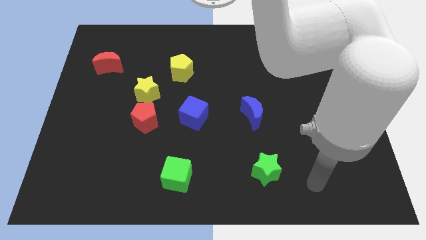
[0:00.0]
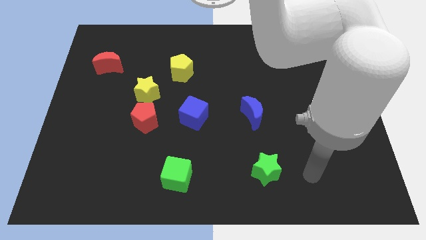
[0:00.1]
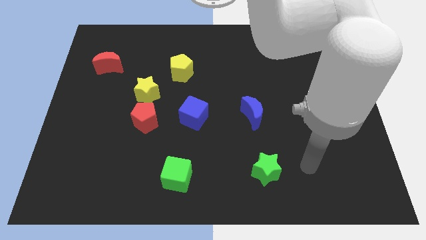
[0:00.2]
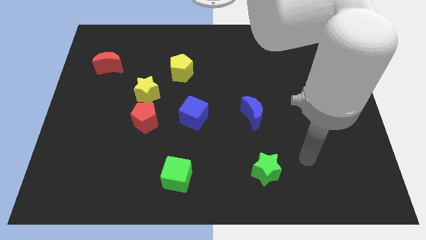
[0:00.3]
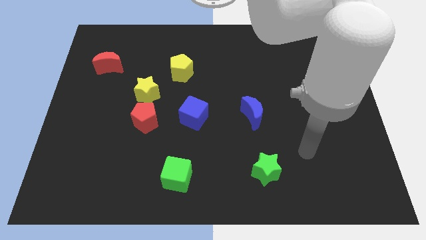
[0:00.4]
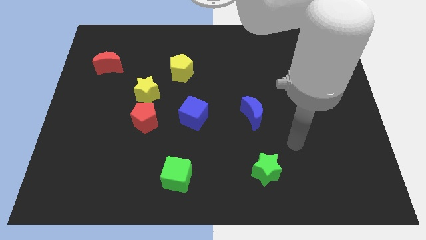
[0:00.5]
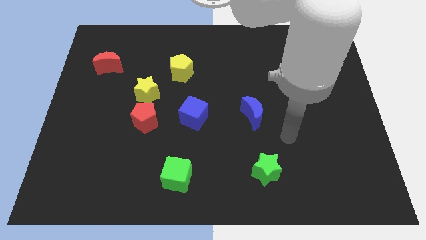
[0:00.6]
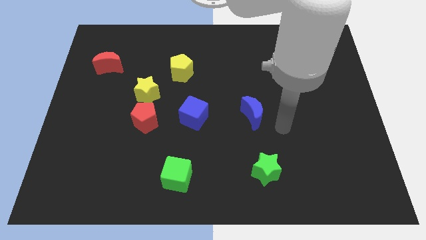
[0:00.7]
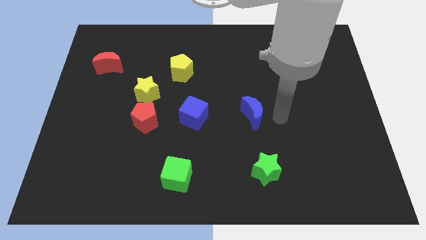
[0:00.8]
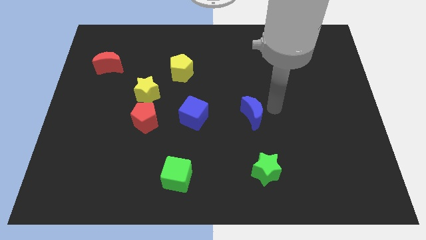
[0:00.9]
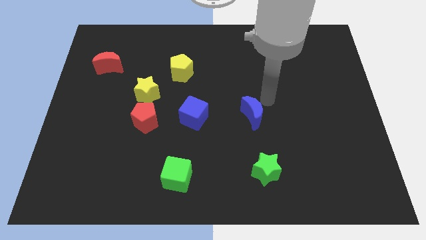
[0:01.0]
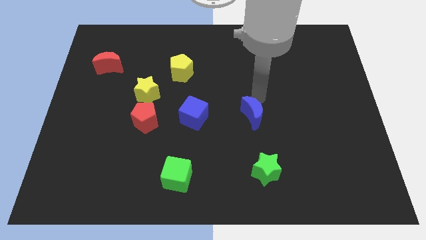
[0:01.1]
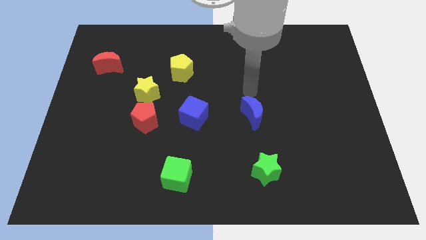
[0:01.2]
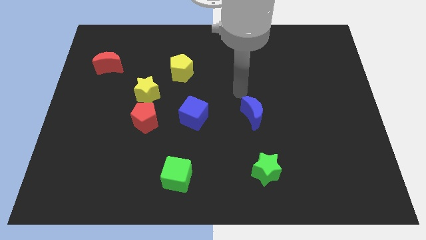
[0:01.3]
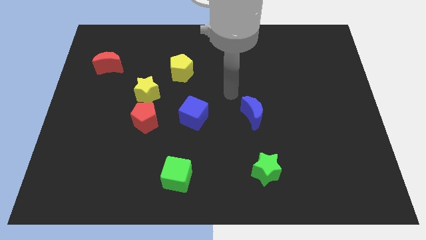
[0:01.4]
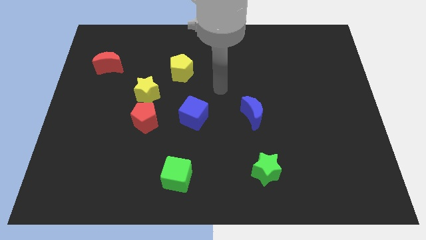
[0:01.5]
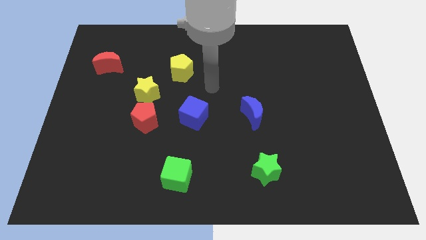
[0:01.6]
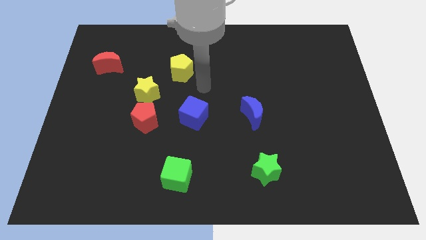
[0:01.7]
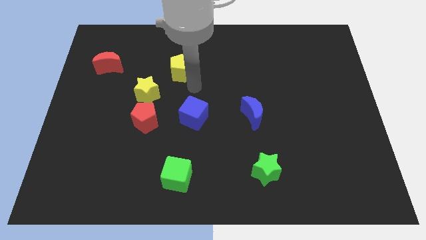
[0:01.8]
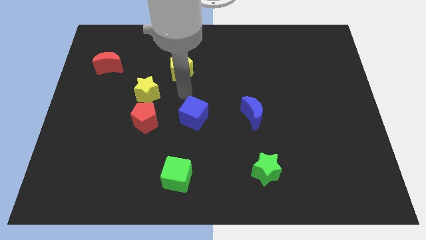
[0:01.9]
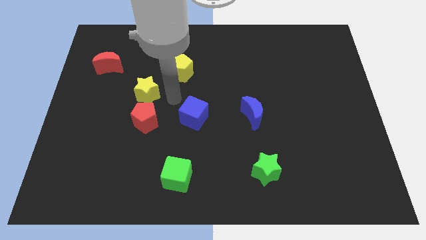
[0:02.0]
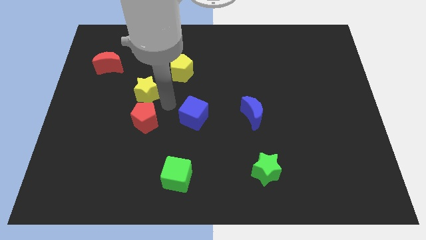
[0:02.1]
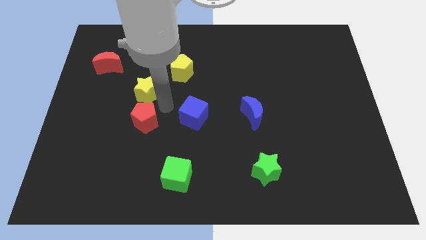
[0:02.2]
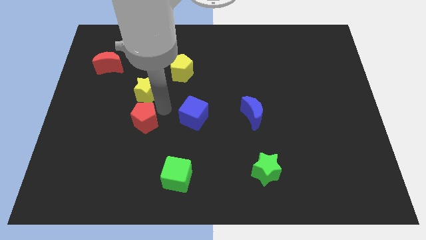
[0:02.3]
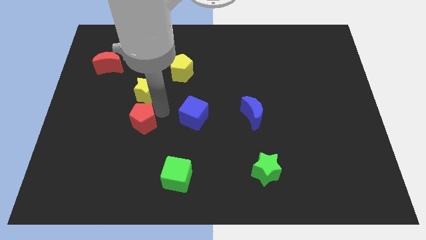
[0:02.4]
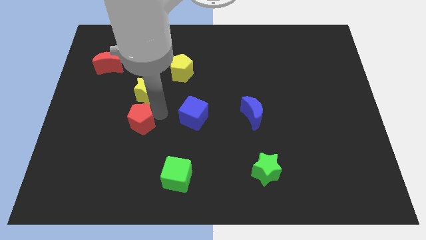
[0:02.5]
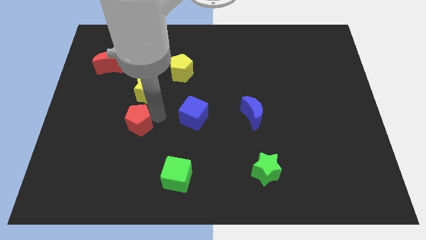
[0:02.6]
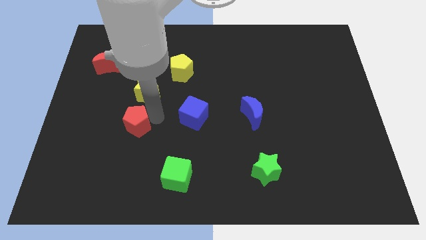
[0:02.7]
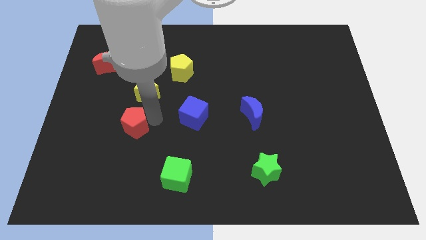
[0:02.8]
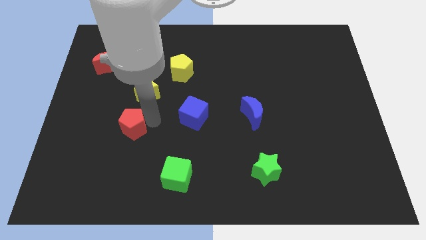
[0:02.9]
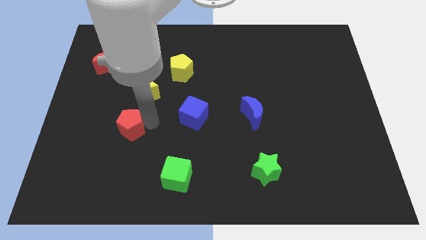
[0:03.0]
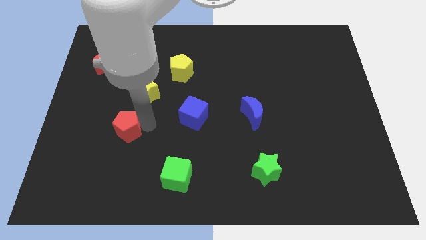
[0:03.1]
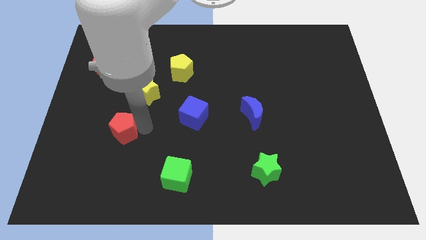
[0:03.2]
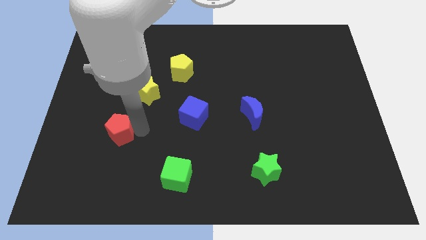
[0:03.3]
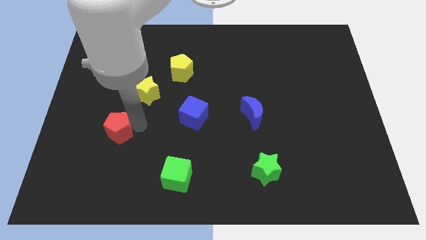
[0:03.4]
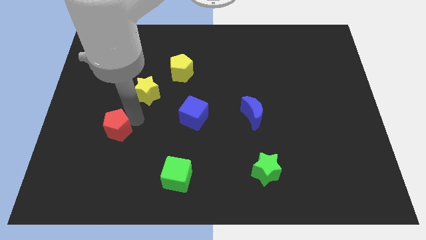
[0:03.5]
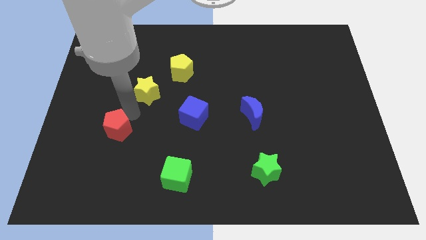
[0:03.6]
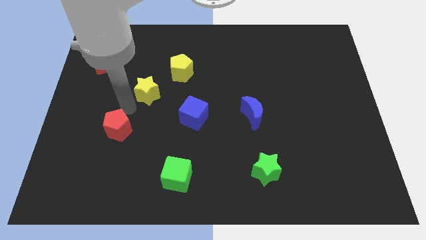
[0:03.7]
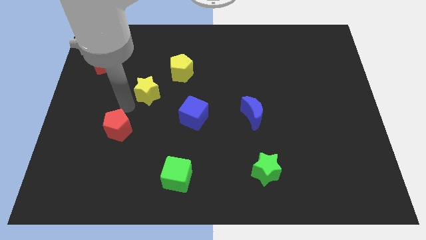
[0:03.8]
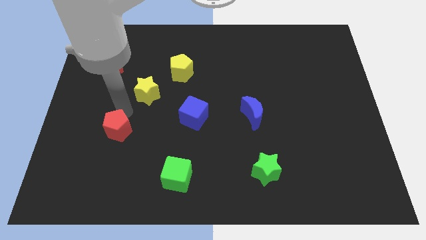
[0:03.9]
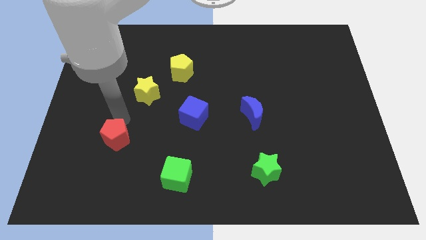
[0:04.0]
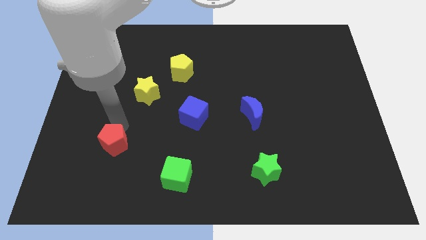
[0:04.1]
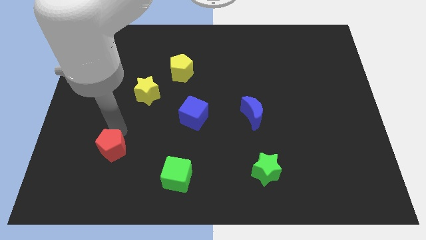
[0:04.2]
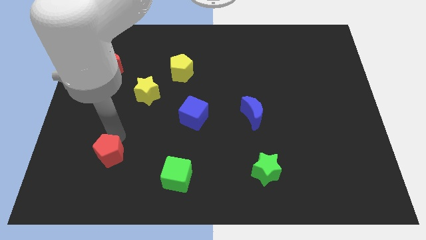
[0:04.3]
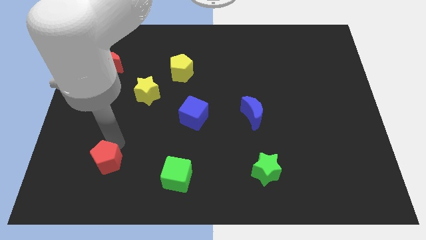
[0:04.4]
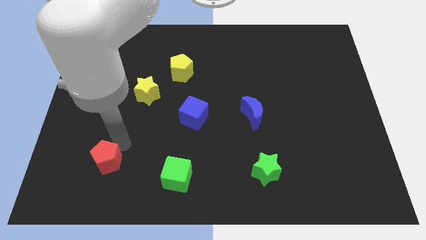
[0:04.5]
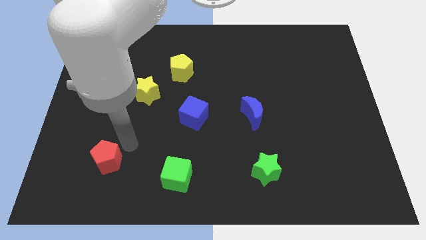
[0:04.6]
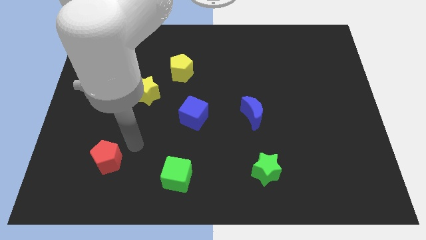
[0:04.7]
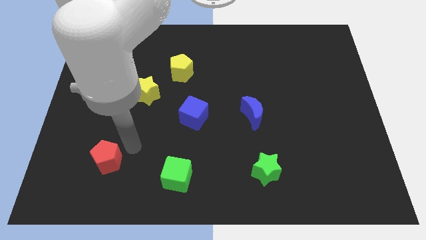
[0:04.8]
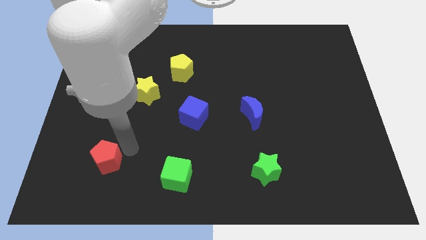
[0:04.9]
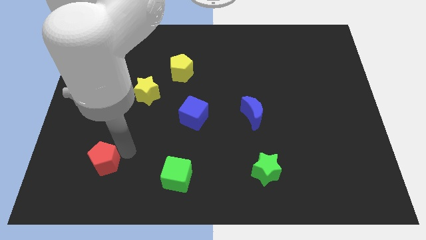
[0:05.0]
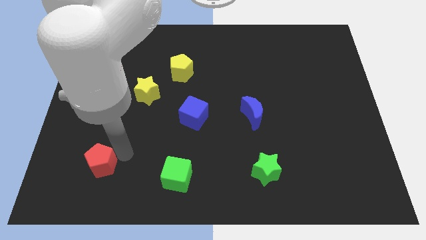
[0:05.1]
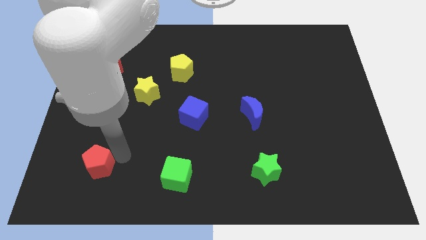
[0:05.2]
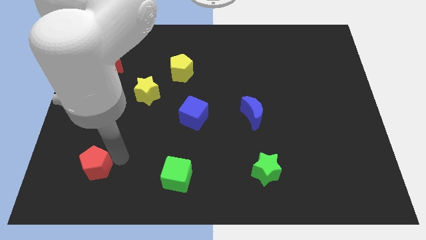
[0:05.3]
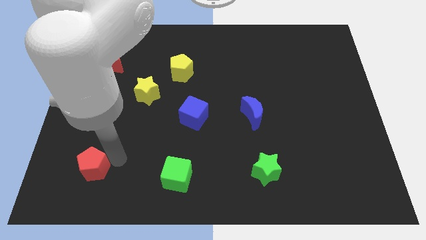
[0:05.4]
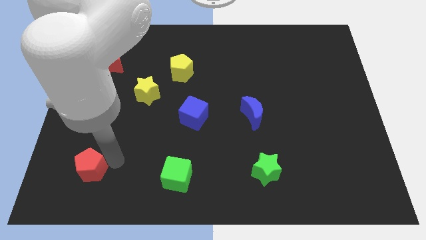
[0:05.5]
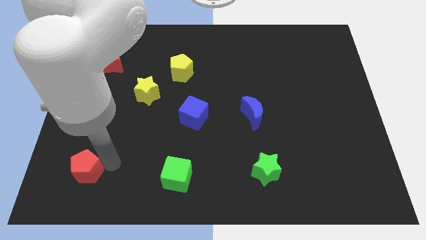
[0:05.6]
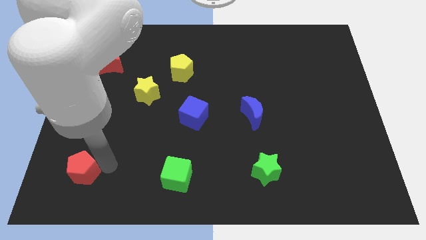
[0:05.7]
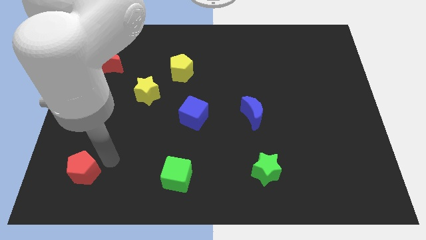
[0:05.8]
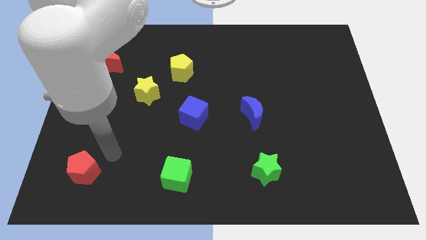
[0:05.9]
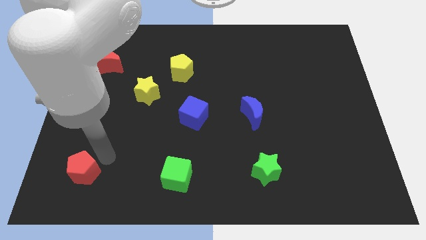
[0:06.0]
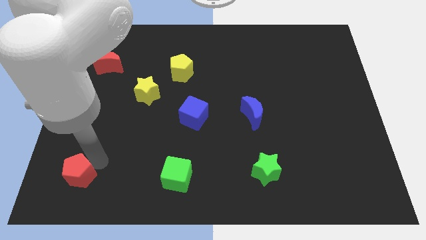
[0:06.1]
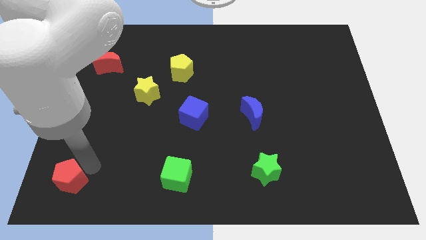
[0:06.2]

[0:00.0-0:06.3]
slide the red pentagon to the bottom left

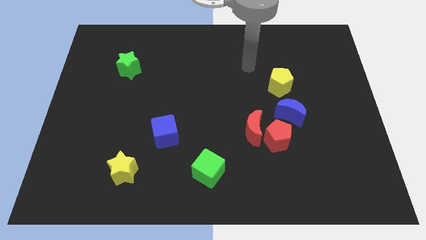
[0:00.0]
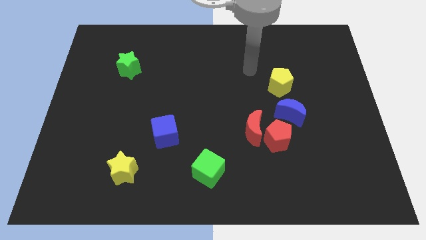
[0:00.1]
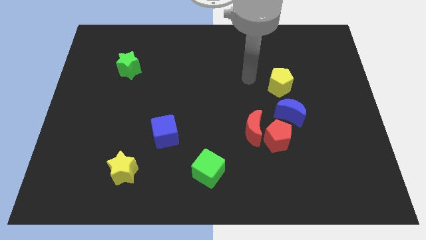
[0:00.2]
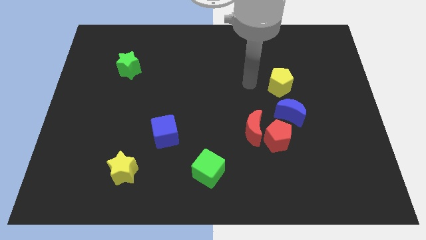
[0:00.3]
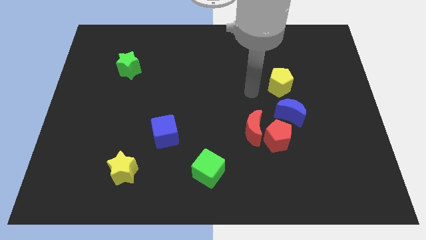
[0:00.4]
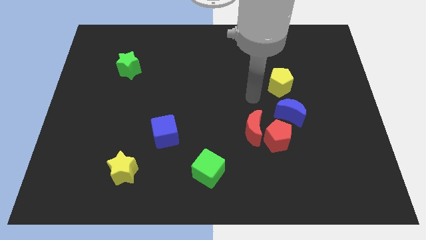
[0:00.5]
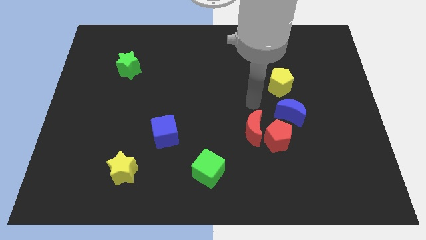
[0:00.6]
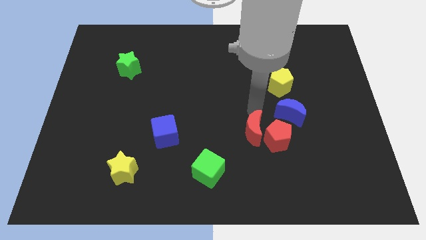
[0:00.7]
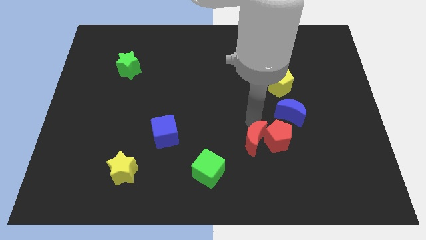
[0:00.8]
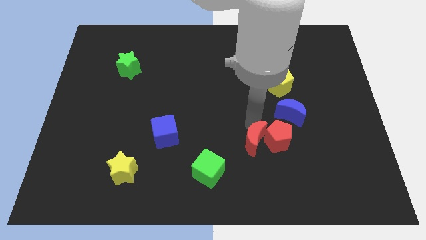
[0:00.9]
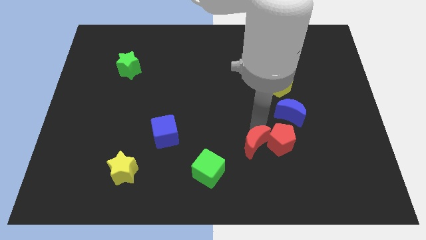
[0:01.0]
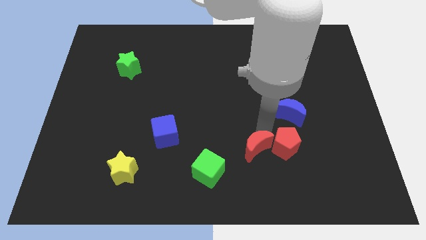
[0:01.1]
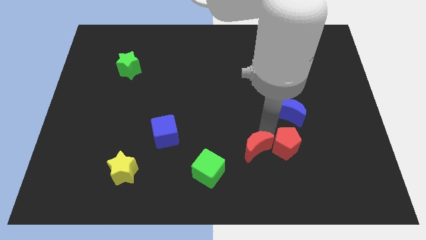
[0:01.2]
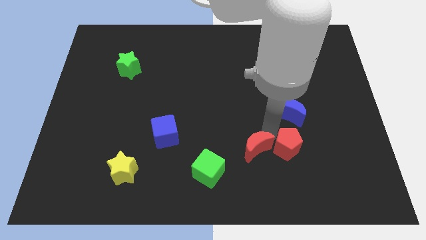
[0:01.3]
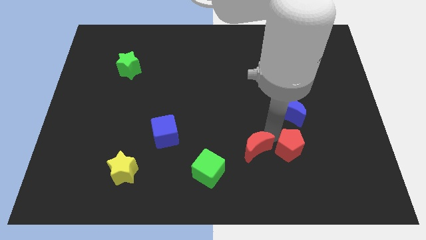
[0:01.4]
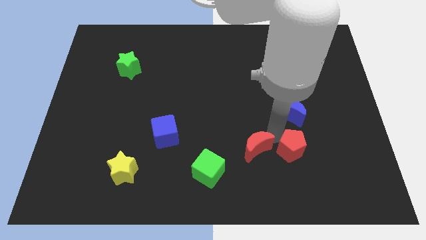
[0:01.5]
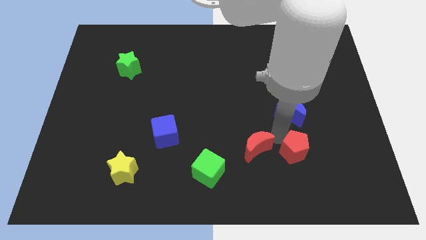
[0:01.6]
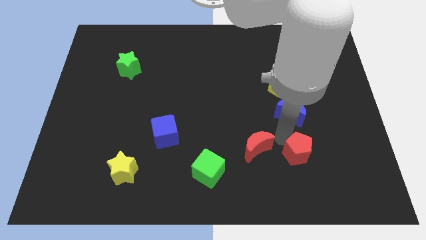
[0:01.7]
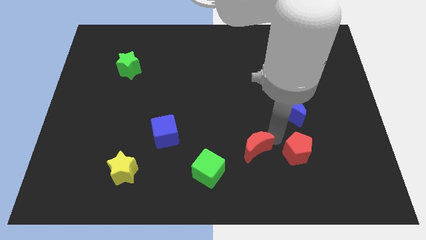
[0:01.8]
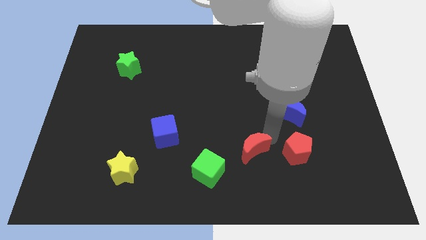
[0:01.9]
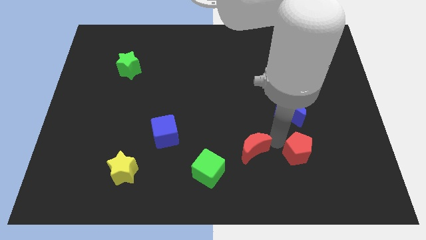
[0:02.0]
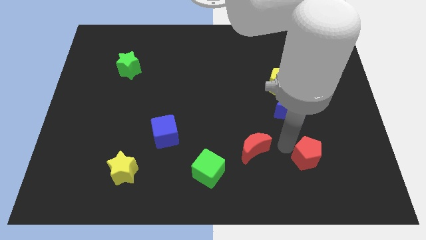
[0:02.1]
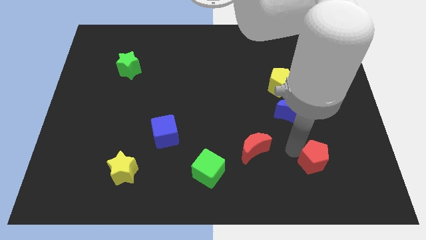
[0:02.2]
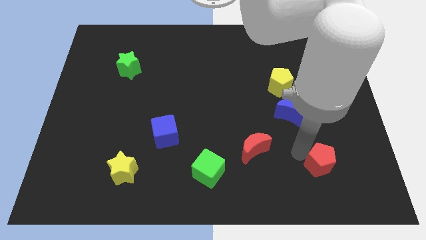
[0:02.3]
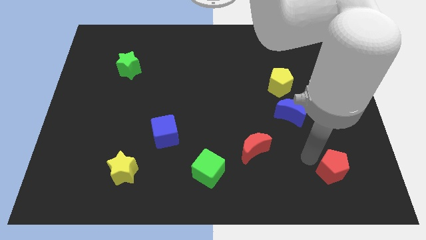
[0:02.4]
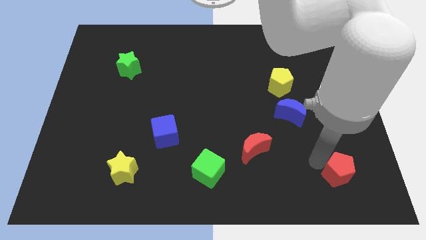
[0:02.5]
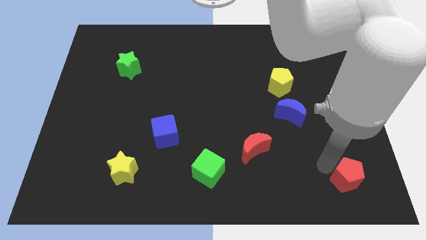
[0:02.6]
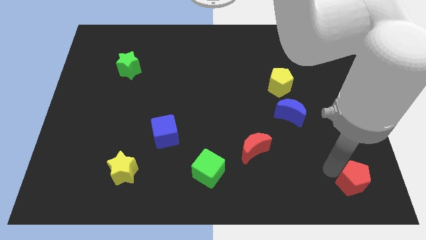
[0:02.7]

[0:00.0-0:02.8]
put the red pentagon to the bottom right corner
